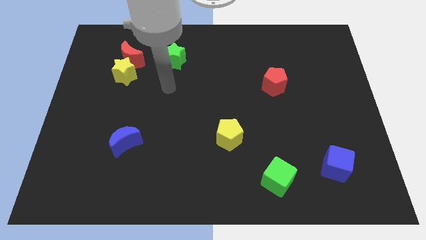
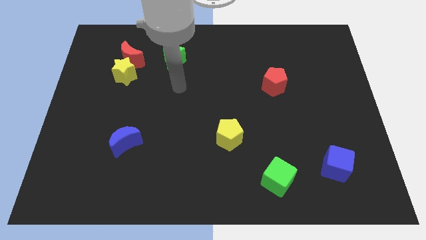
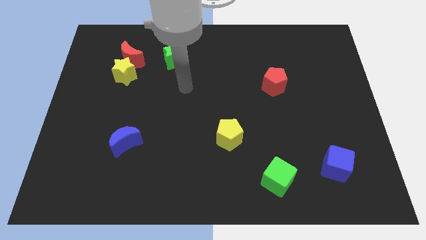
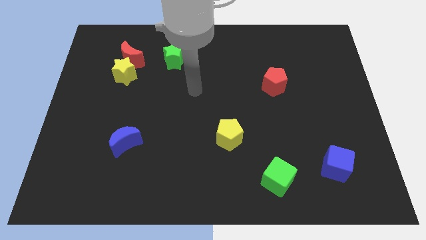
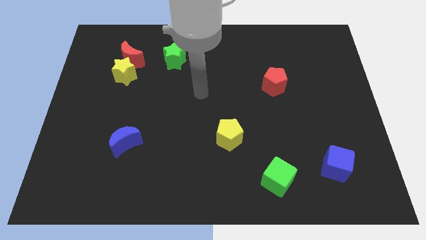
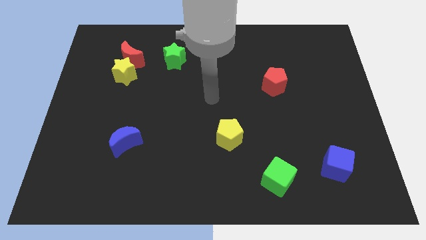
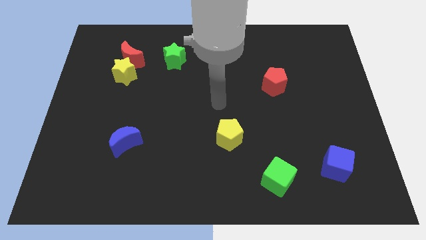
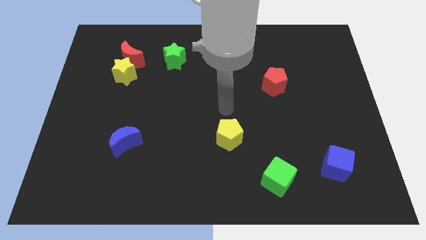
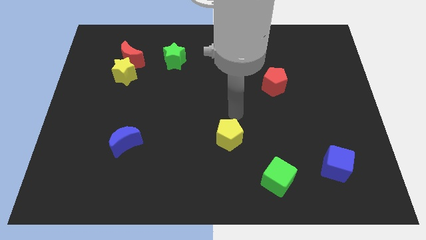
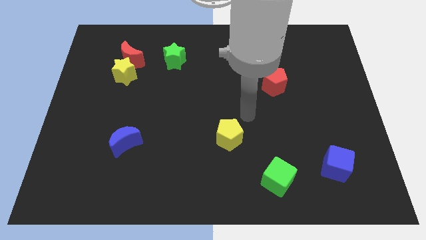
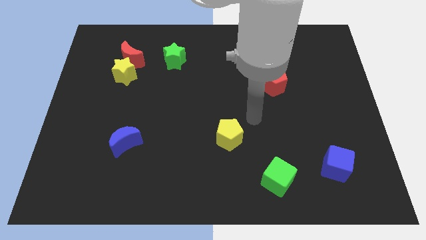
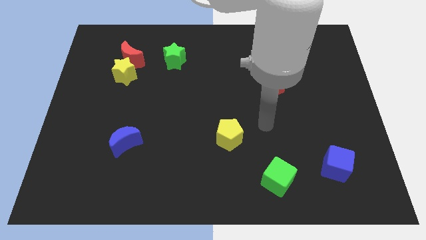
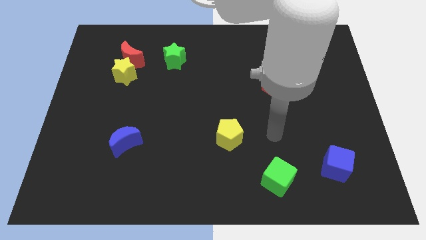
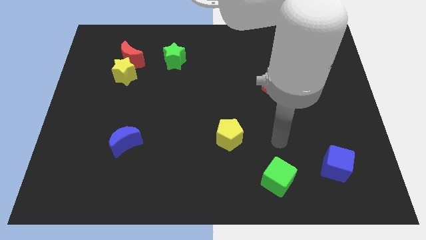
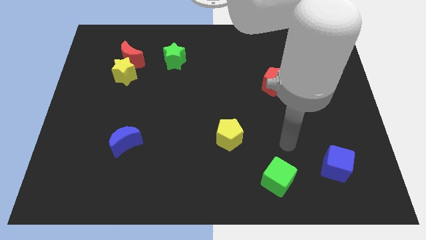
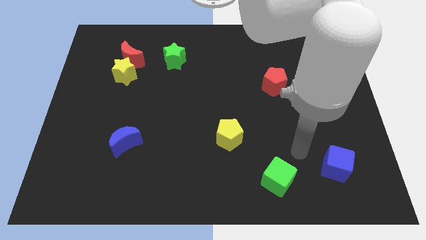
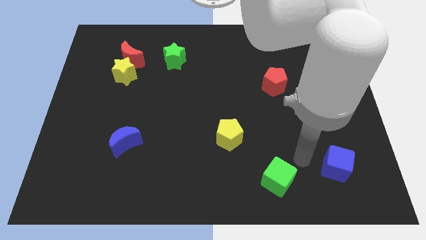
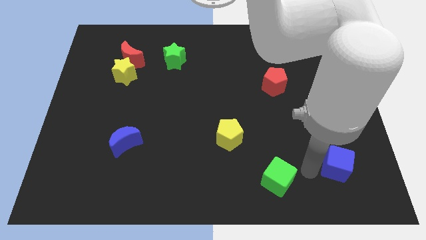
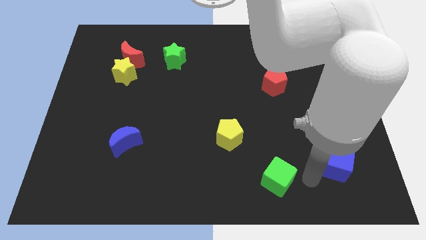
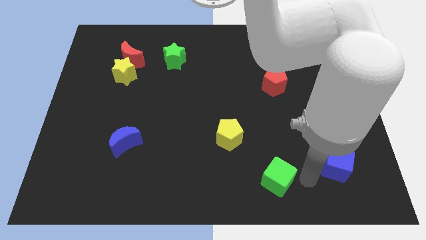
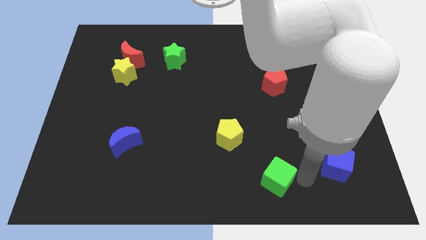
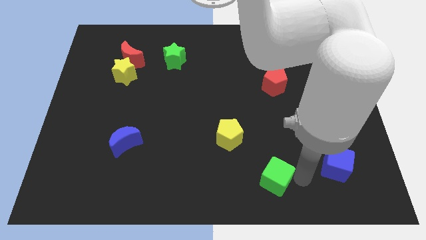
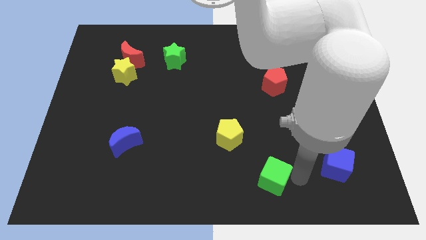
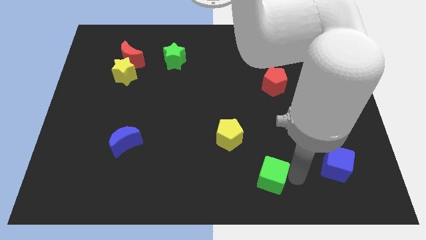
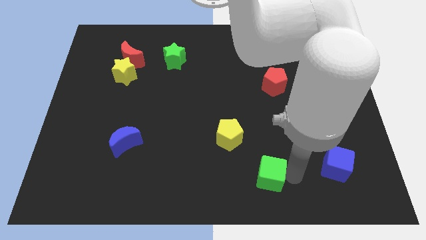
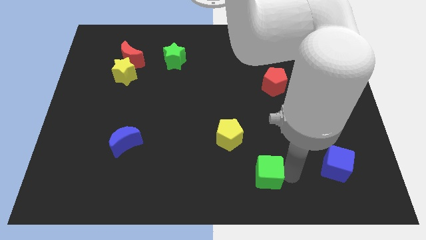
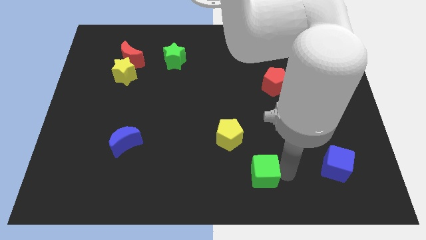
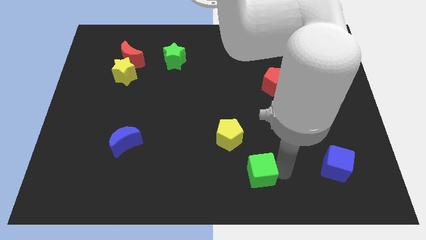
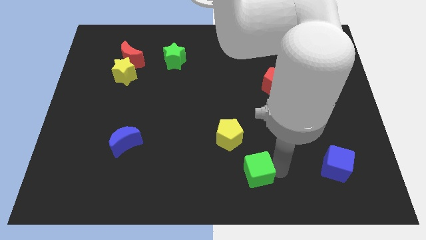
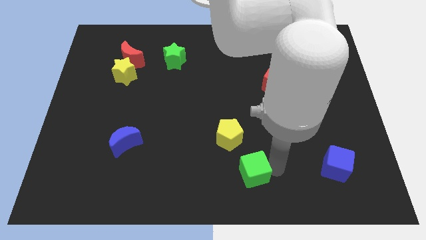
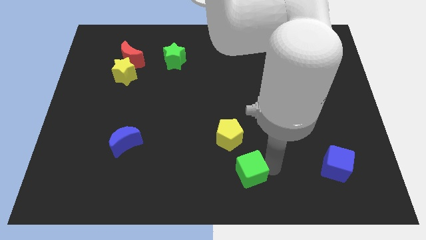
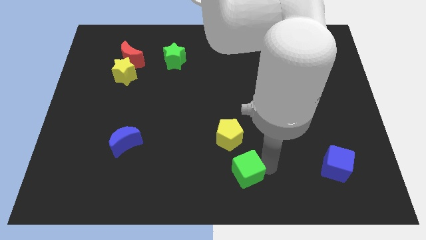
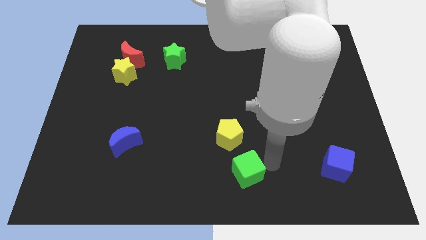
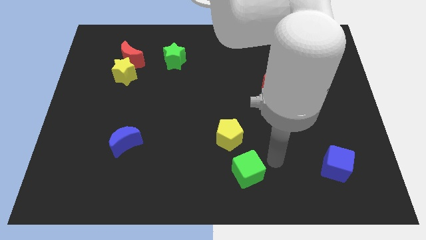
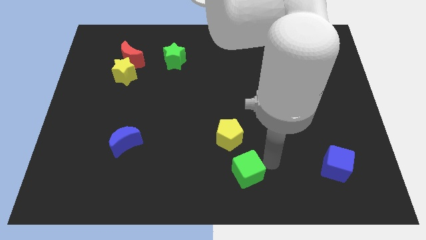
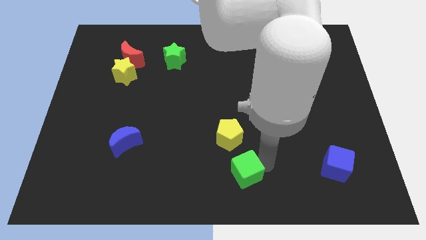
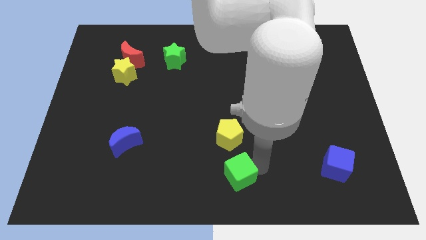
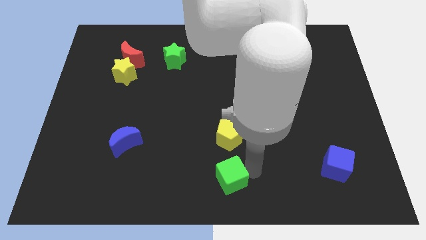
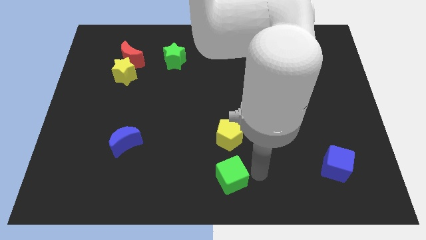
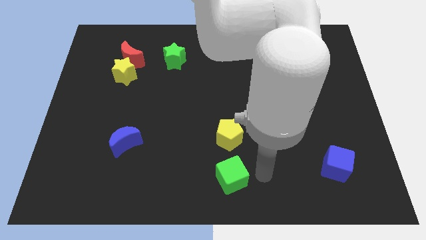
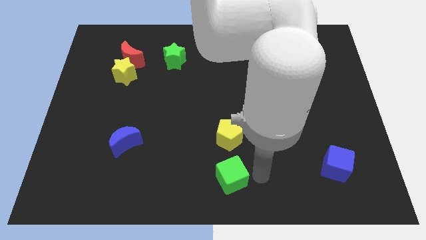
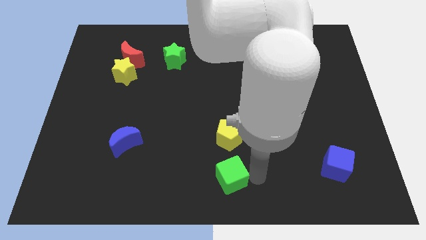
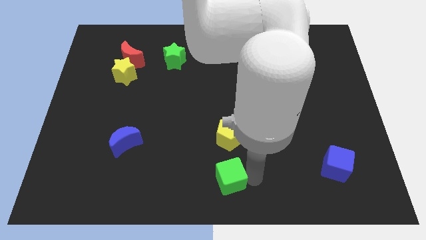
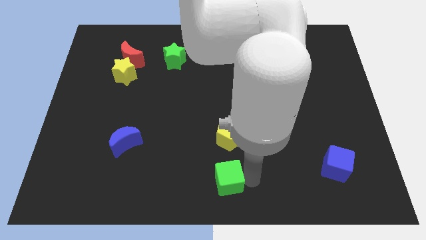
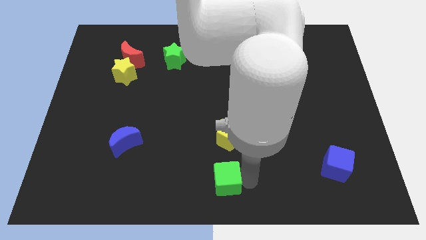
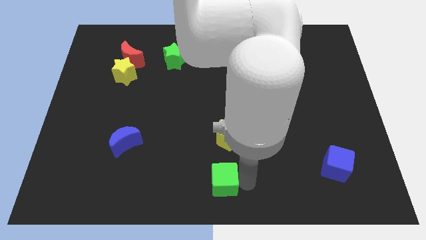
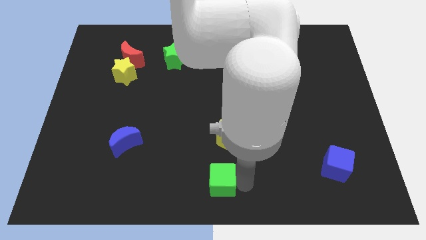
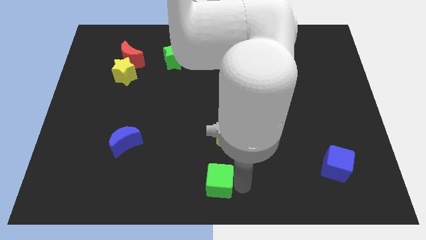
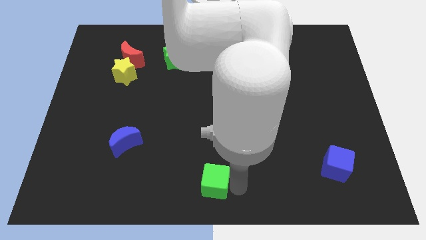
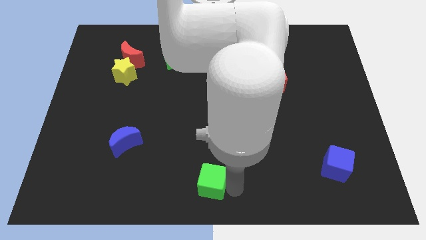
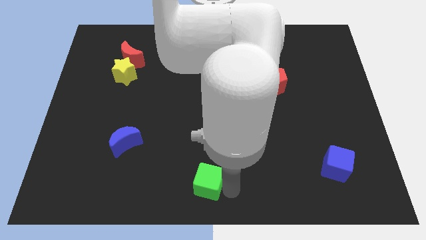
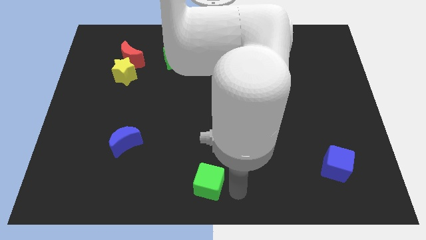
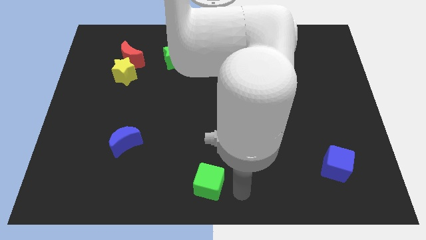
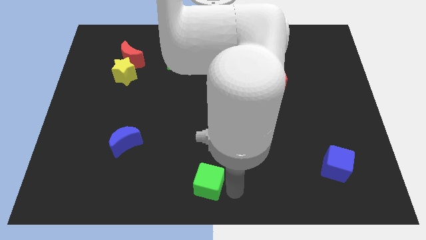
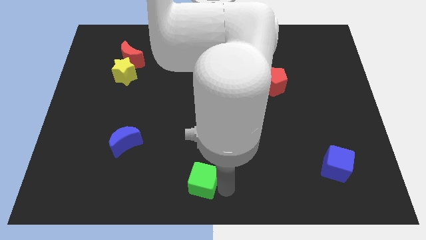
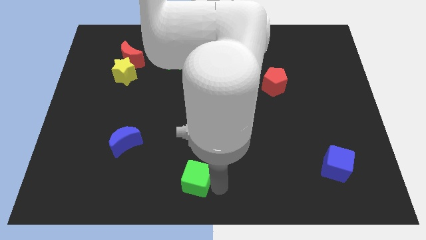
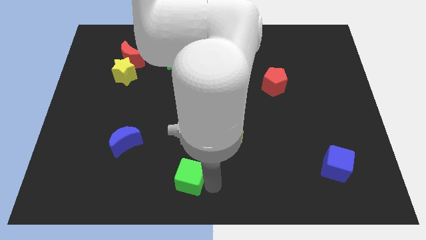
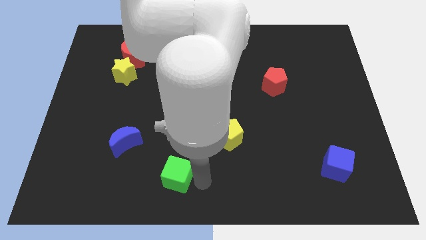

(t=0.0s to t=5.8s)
push the green cube to the left

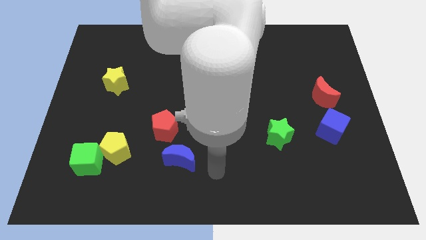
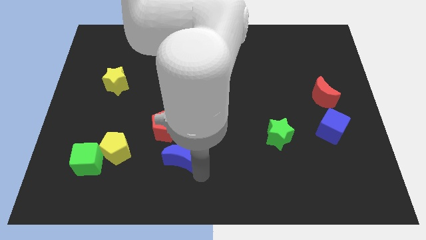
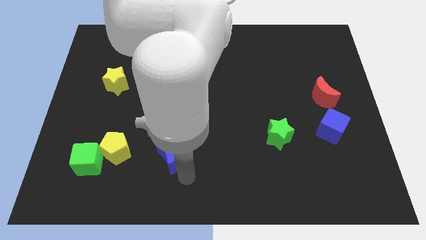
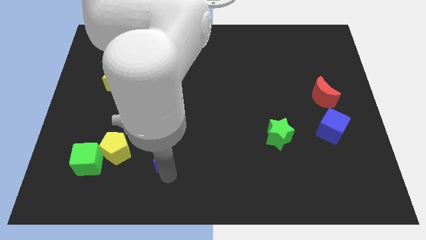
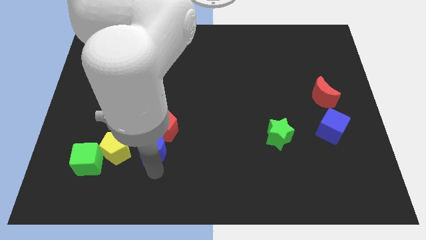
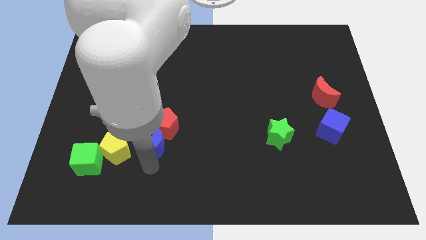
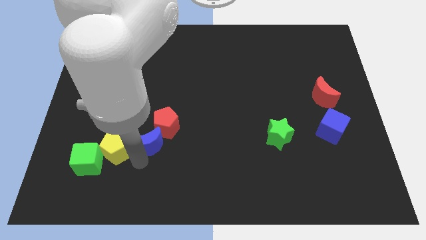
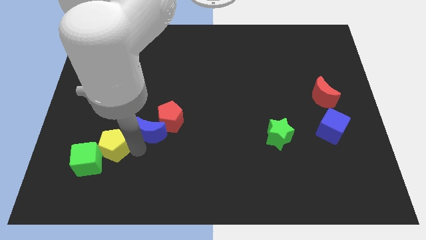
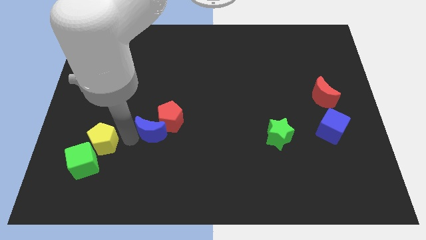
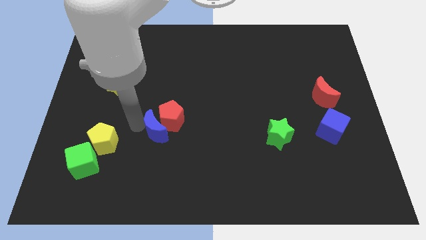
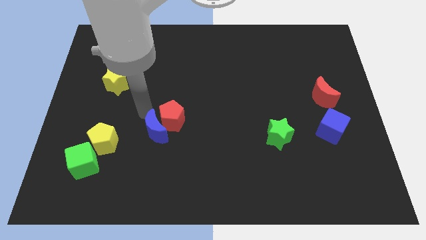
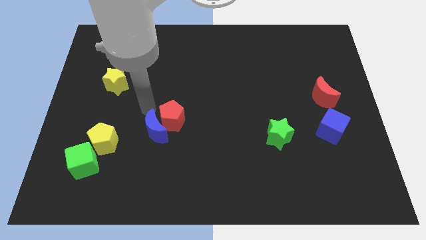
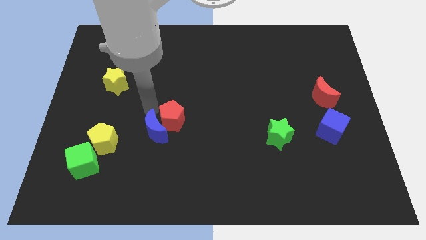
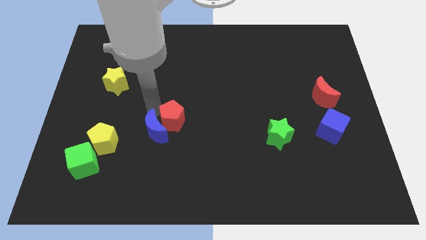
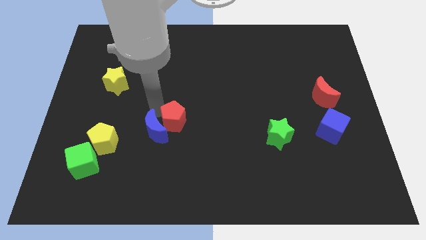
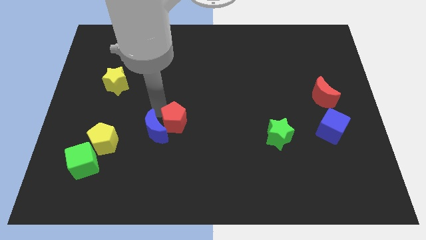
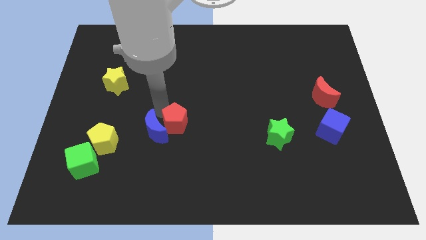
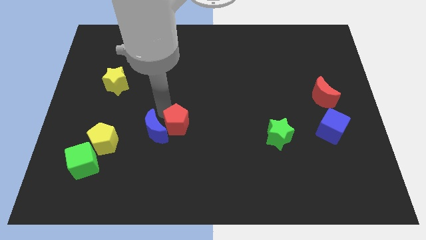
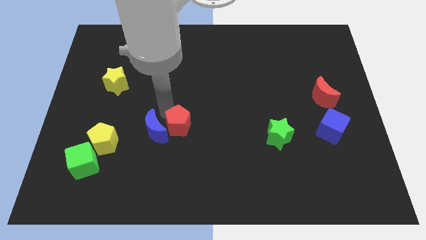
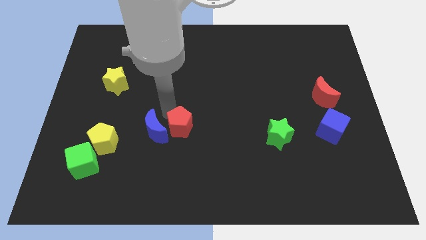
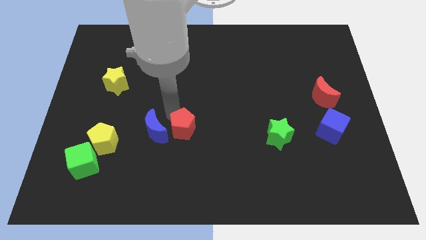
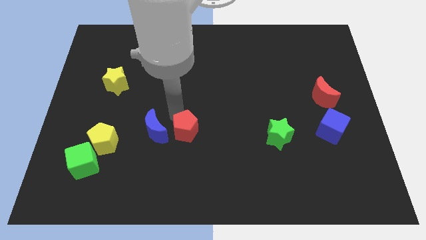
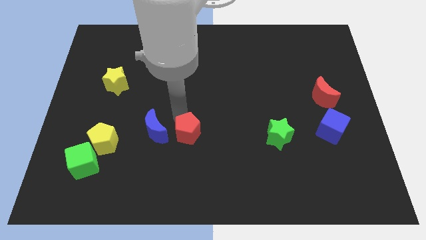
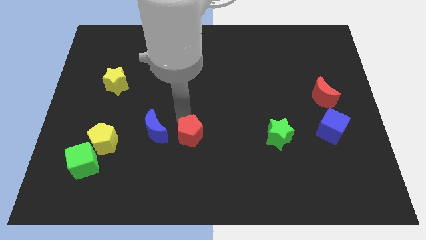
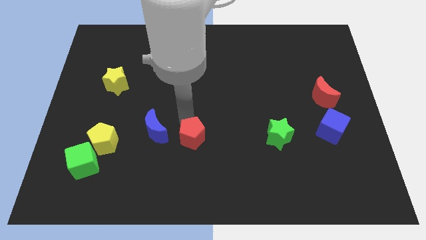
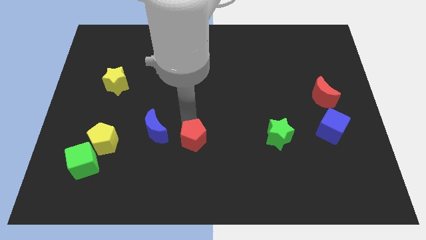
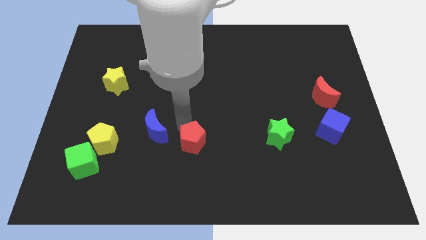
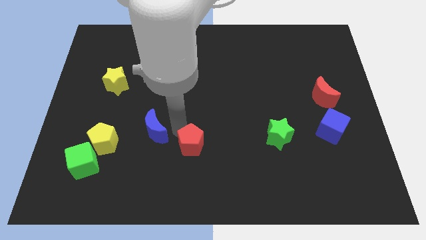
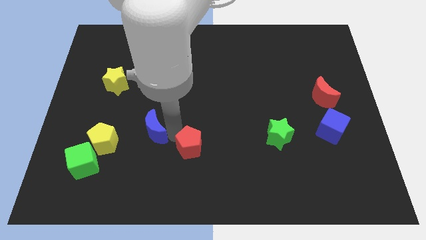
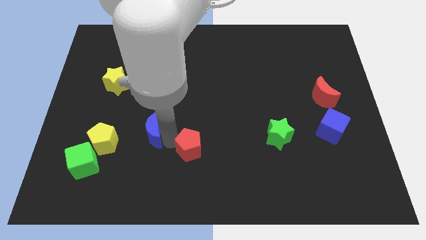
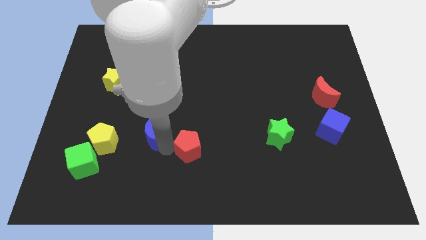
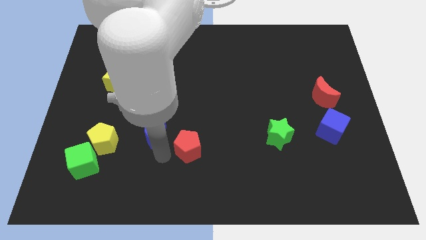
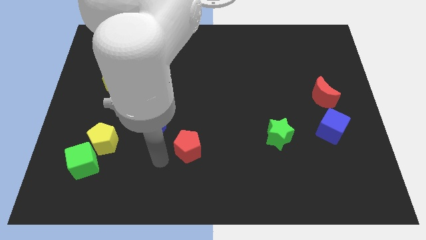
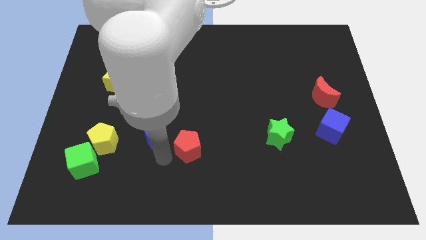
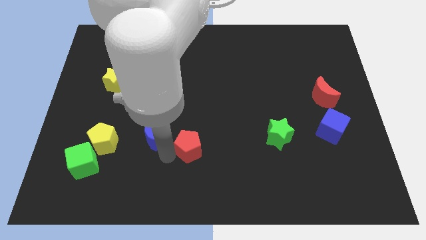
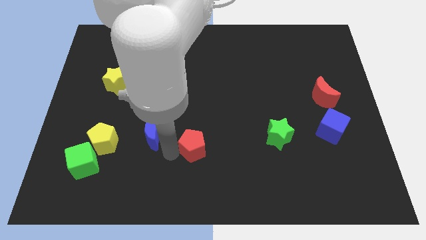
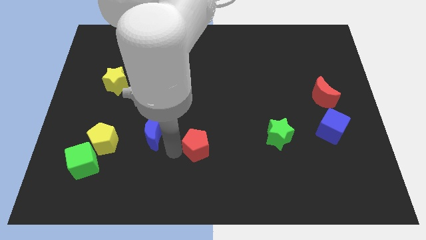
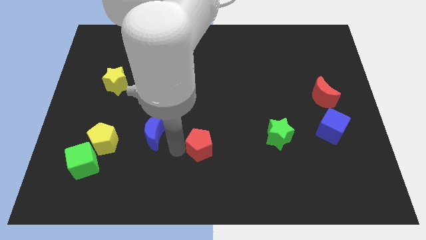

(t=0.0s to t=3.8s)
slide the red pentagon right a little
